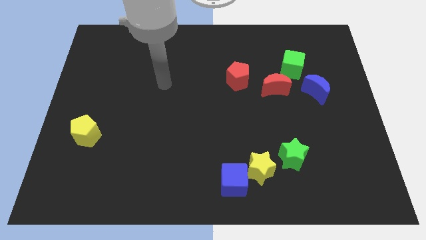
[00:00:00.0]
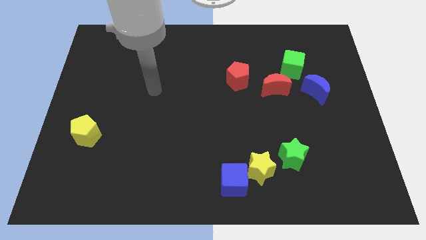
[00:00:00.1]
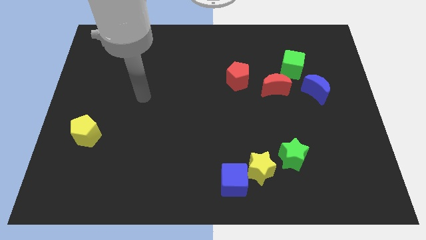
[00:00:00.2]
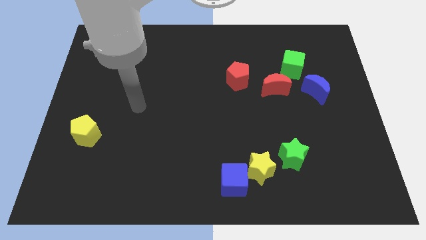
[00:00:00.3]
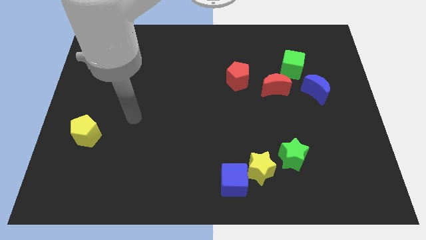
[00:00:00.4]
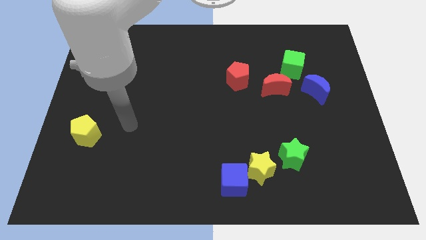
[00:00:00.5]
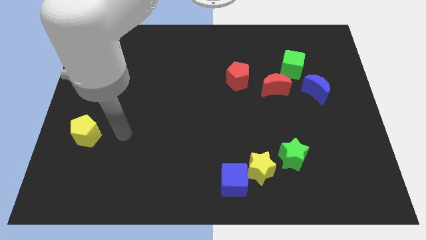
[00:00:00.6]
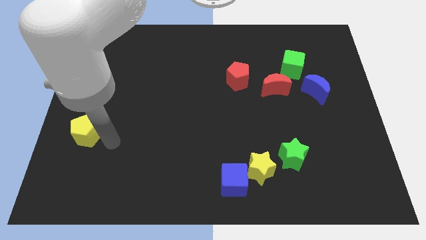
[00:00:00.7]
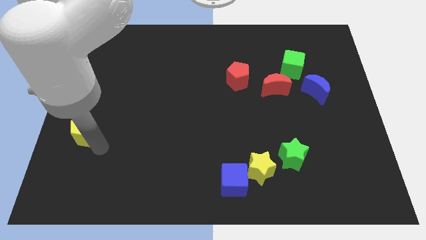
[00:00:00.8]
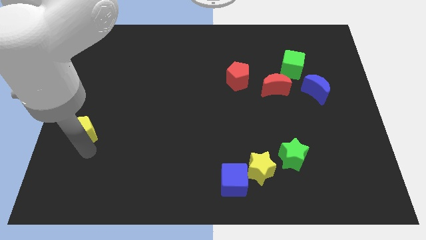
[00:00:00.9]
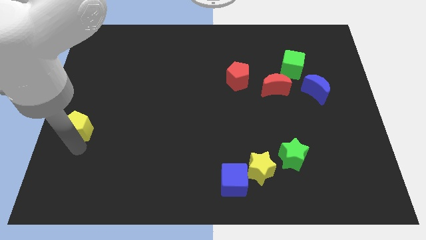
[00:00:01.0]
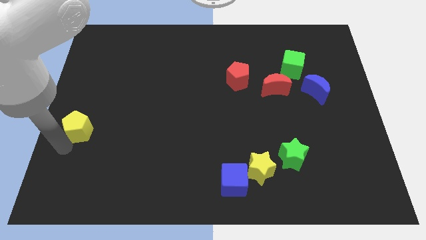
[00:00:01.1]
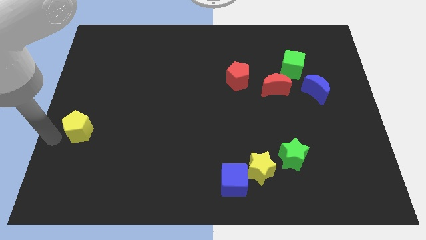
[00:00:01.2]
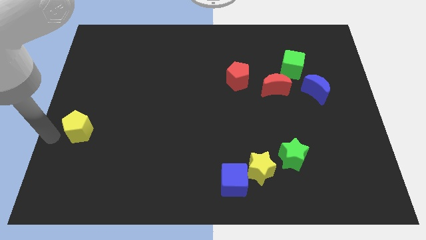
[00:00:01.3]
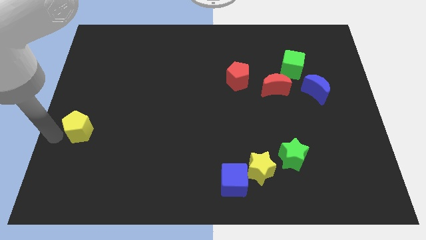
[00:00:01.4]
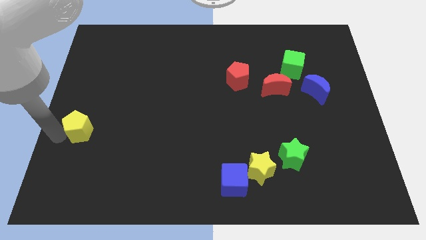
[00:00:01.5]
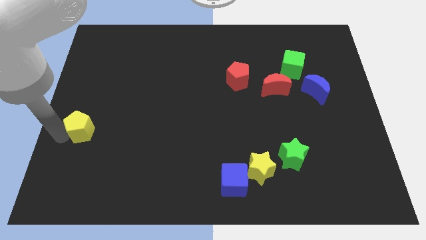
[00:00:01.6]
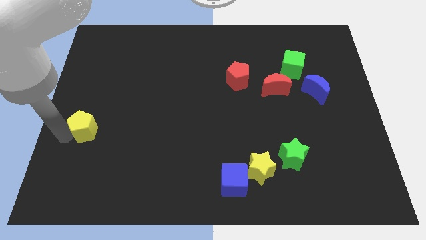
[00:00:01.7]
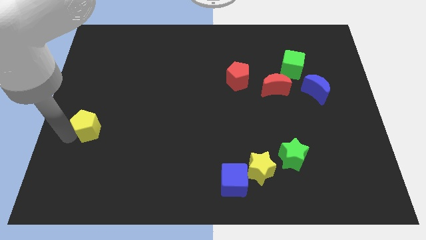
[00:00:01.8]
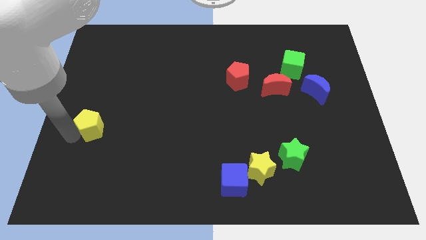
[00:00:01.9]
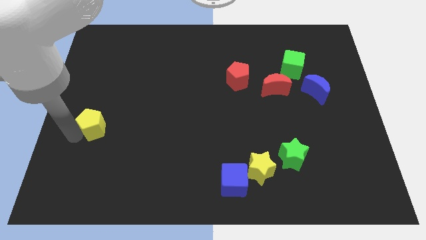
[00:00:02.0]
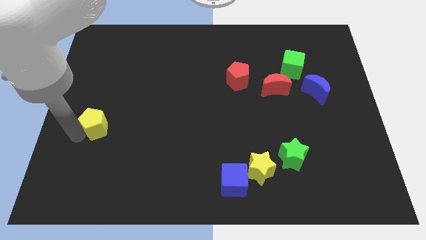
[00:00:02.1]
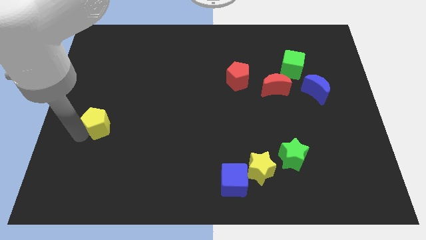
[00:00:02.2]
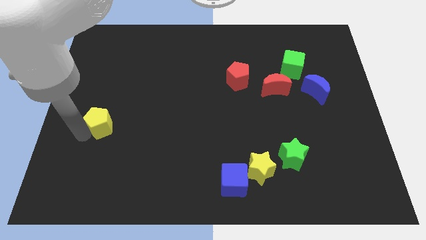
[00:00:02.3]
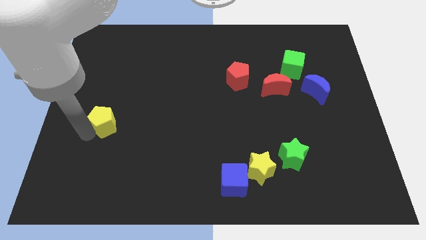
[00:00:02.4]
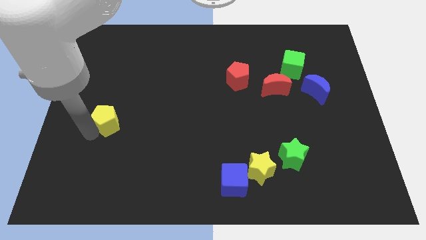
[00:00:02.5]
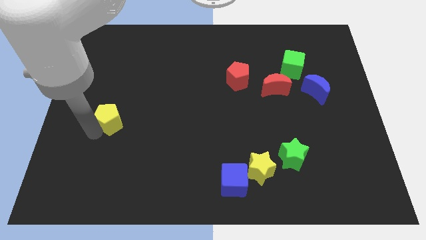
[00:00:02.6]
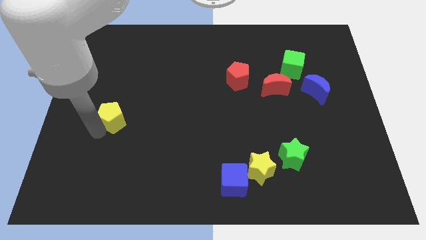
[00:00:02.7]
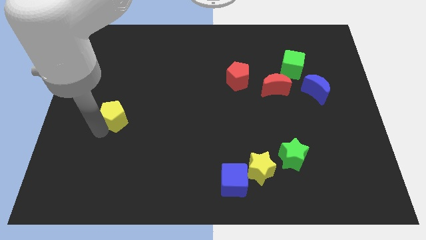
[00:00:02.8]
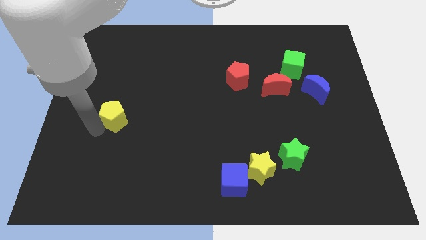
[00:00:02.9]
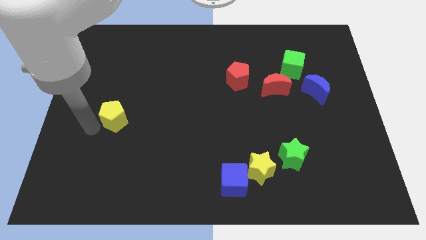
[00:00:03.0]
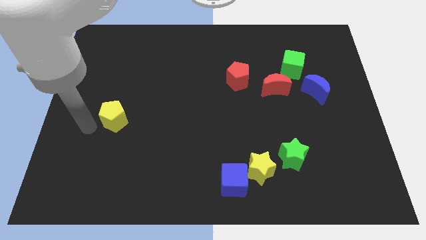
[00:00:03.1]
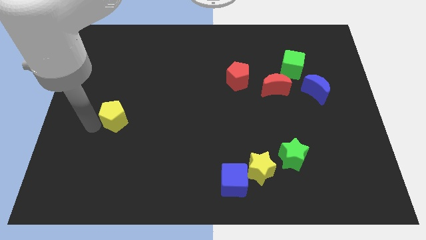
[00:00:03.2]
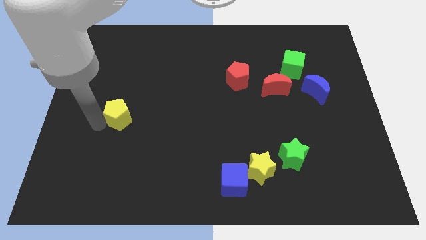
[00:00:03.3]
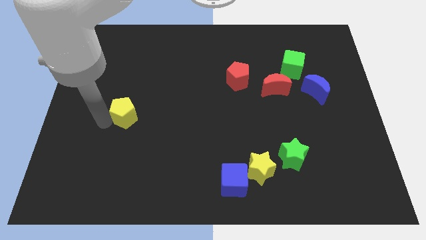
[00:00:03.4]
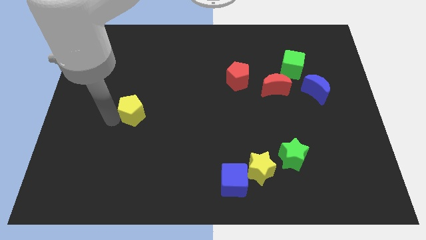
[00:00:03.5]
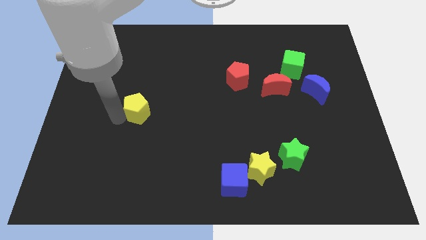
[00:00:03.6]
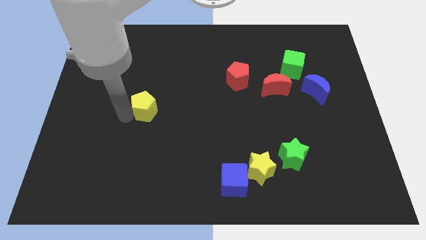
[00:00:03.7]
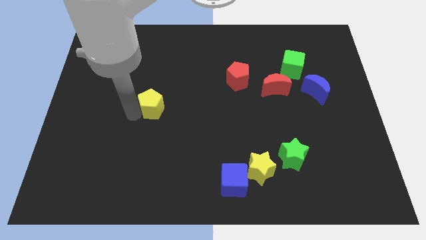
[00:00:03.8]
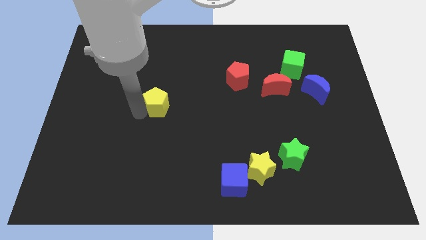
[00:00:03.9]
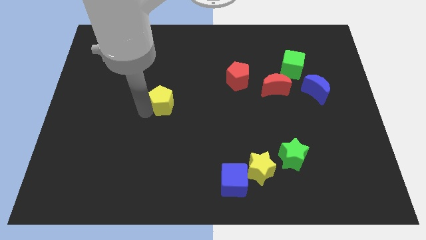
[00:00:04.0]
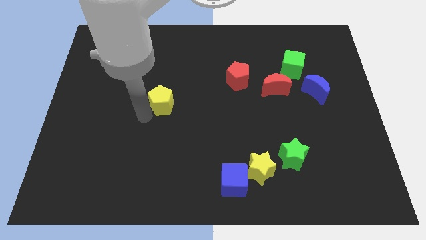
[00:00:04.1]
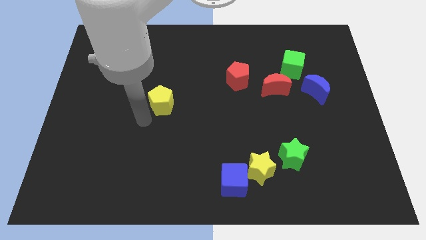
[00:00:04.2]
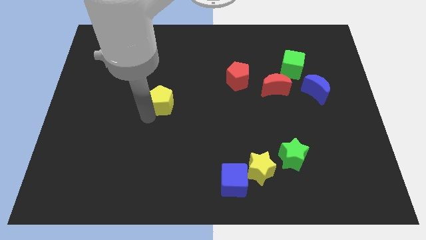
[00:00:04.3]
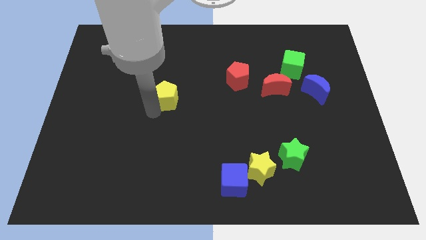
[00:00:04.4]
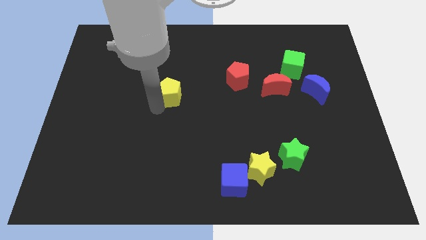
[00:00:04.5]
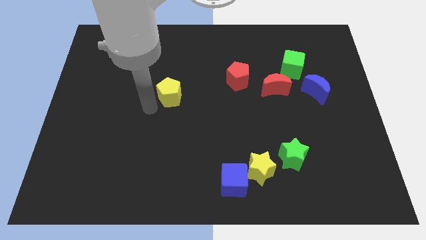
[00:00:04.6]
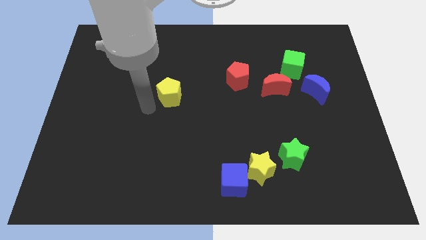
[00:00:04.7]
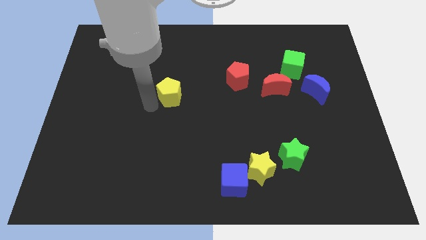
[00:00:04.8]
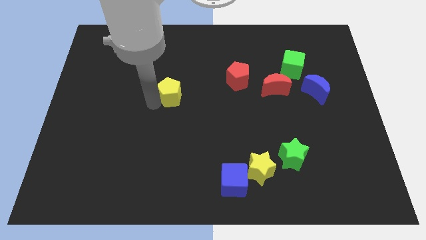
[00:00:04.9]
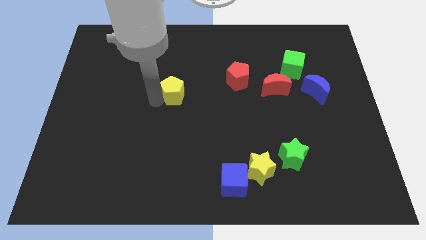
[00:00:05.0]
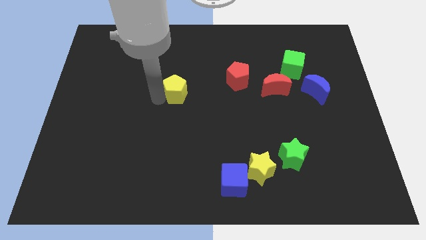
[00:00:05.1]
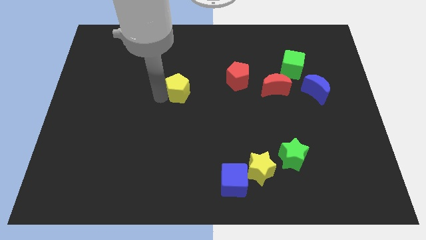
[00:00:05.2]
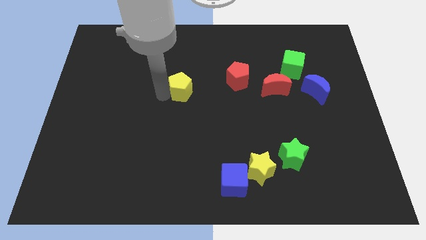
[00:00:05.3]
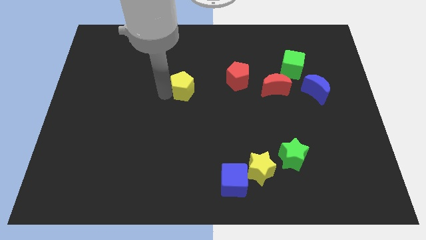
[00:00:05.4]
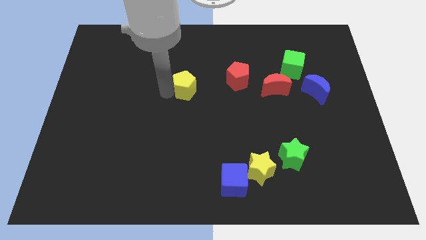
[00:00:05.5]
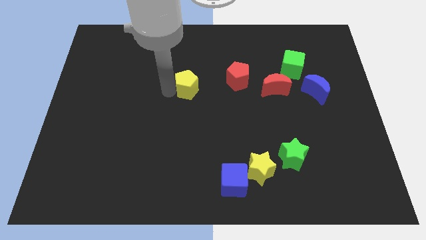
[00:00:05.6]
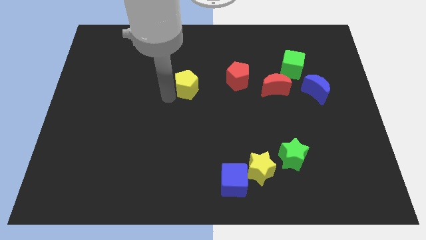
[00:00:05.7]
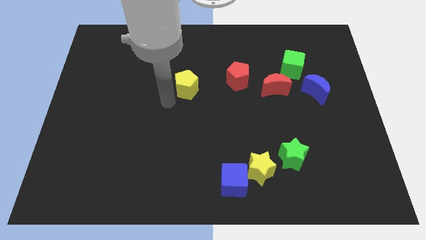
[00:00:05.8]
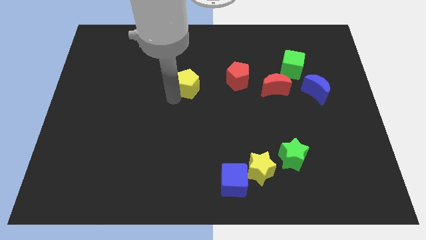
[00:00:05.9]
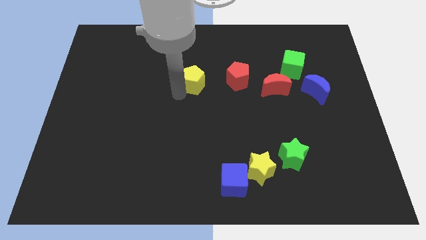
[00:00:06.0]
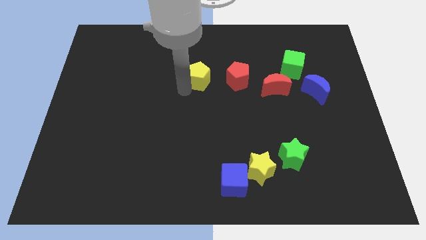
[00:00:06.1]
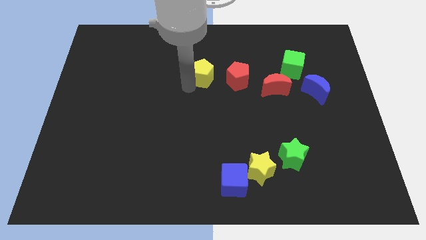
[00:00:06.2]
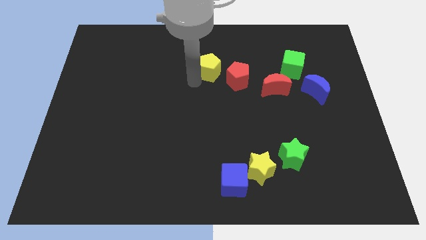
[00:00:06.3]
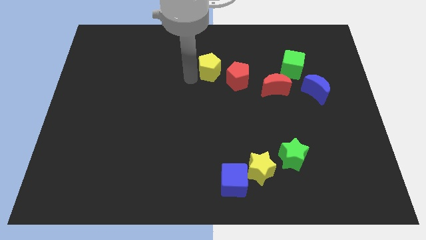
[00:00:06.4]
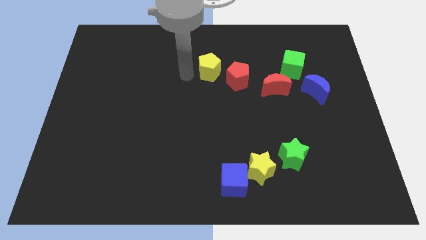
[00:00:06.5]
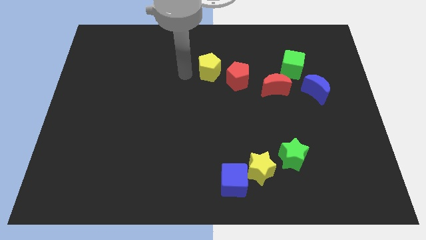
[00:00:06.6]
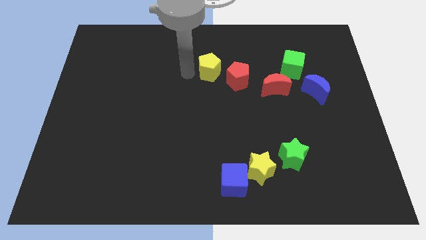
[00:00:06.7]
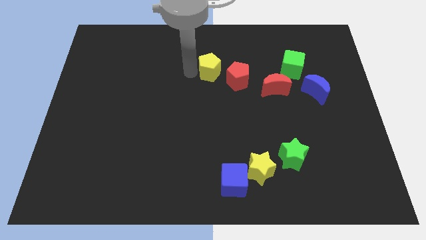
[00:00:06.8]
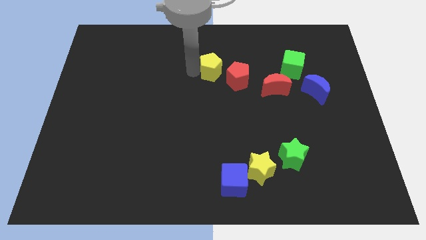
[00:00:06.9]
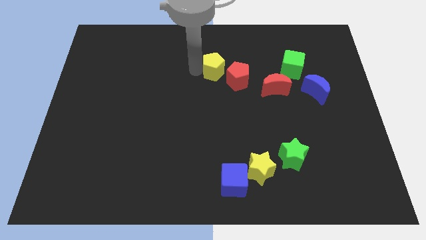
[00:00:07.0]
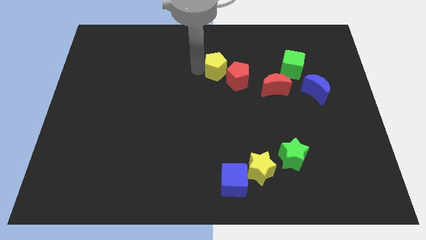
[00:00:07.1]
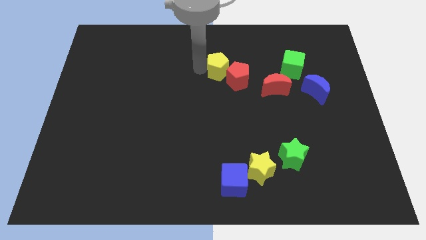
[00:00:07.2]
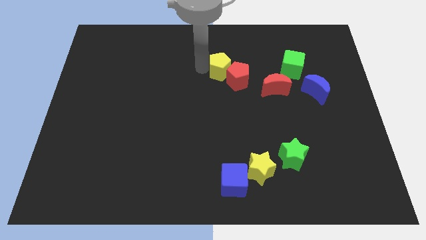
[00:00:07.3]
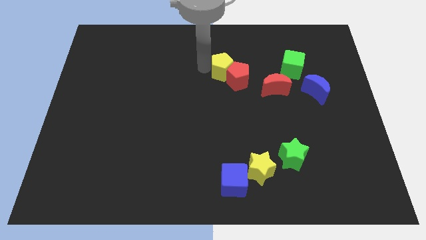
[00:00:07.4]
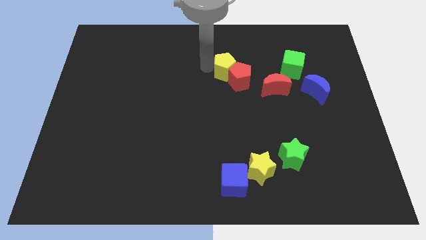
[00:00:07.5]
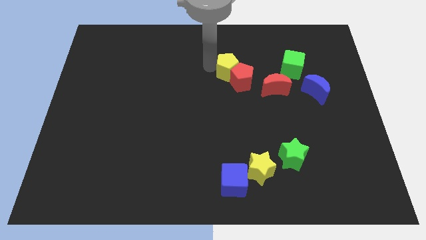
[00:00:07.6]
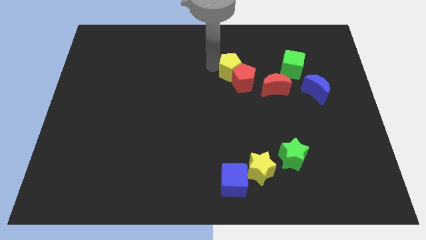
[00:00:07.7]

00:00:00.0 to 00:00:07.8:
move the yellow pentagon just left of the green cube
